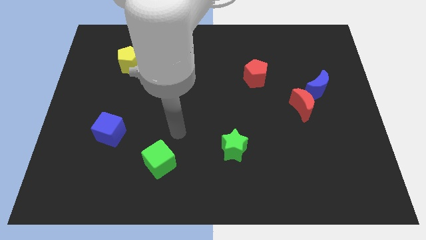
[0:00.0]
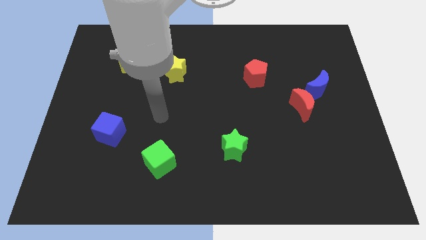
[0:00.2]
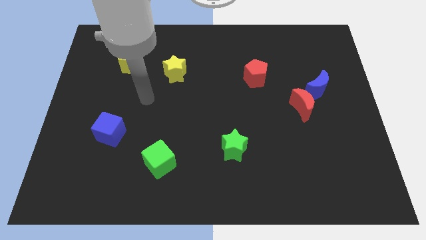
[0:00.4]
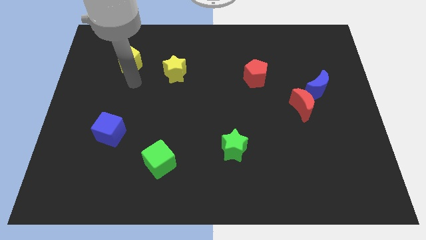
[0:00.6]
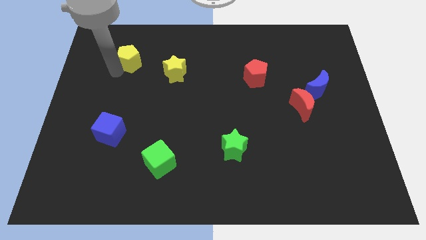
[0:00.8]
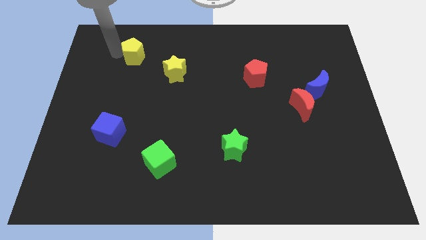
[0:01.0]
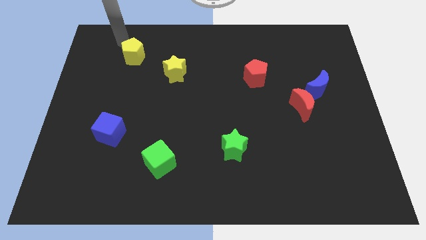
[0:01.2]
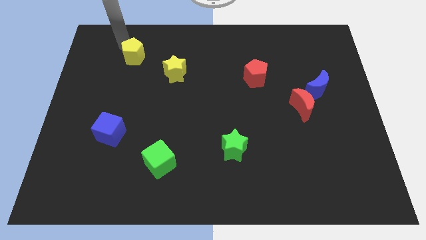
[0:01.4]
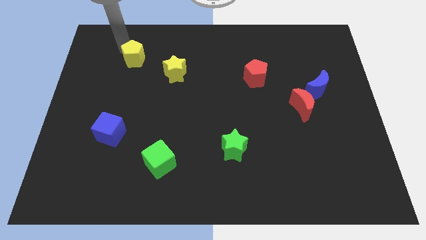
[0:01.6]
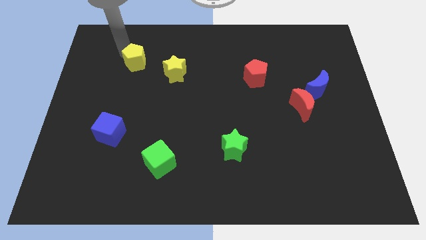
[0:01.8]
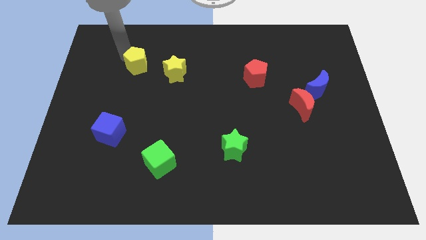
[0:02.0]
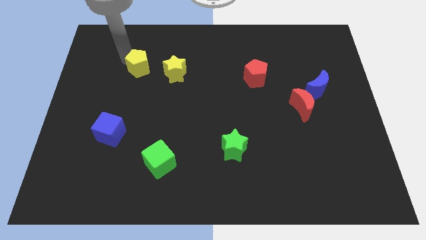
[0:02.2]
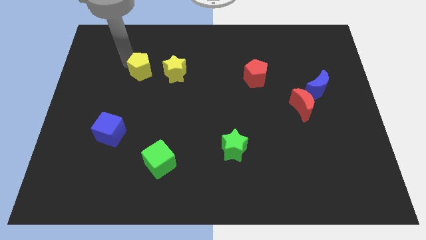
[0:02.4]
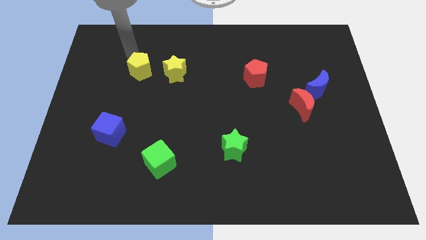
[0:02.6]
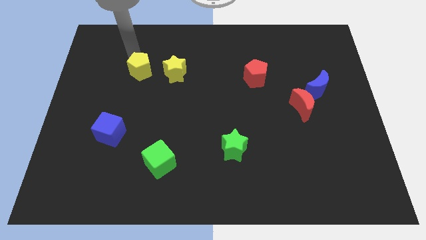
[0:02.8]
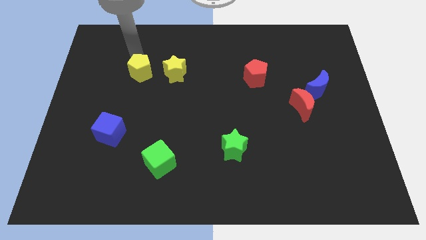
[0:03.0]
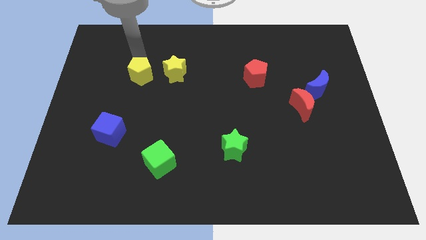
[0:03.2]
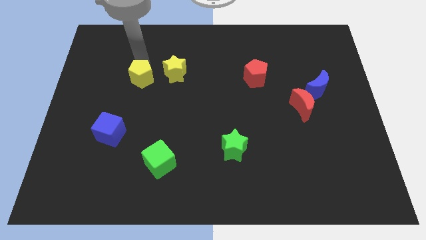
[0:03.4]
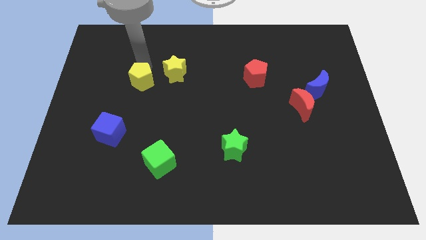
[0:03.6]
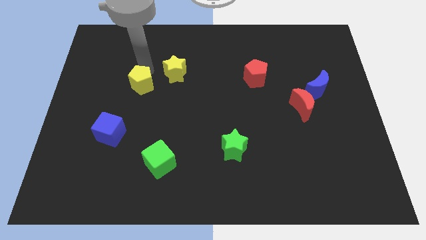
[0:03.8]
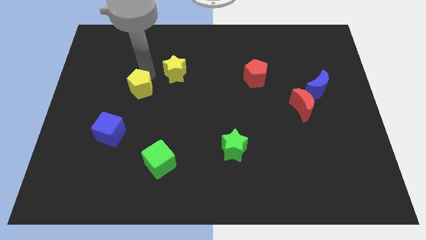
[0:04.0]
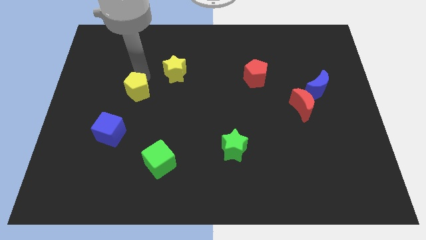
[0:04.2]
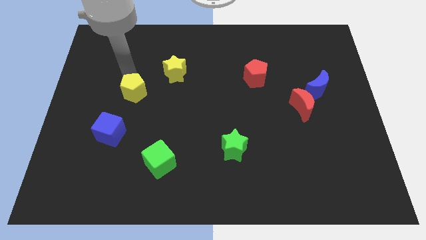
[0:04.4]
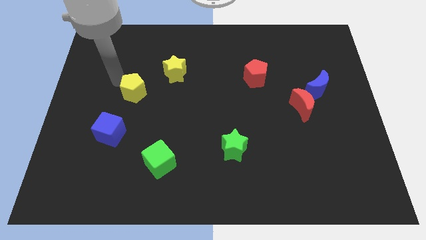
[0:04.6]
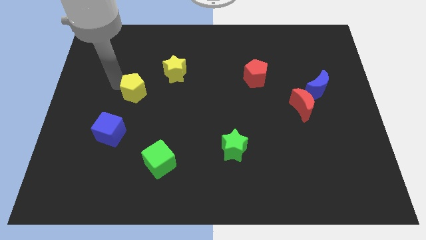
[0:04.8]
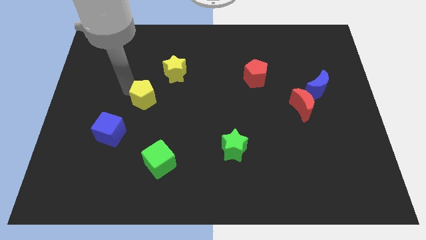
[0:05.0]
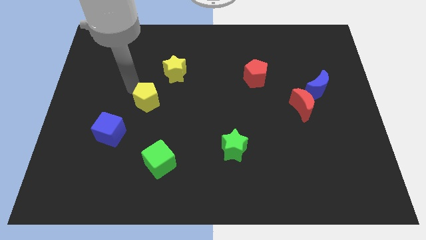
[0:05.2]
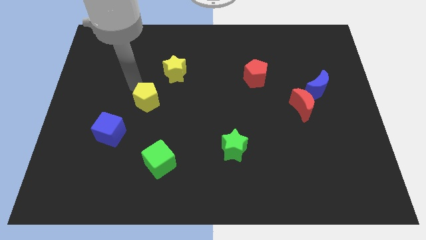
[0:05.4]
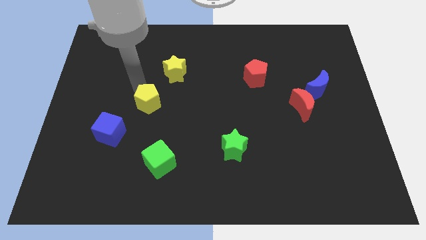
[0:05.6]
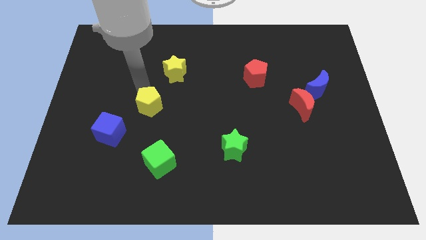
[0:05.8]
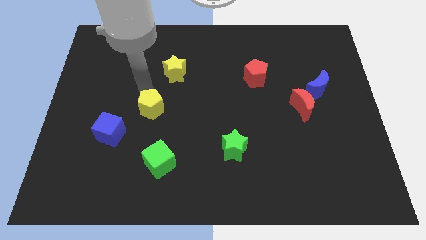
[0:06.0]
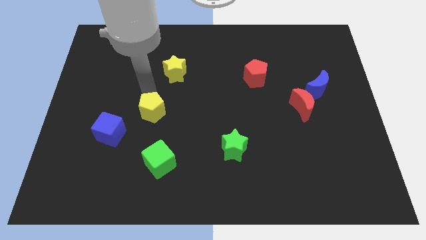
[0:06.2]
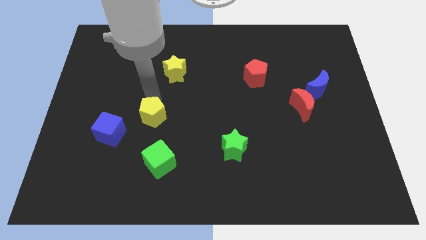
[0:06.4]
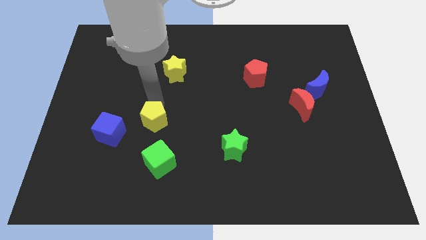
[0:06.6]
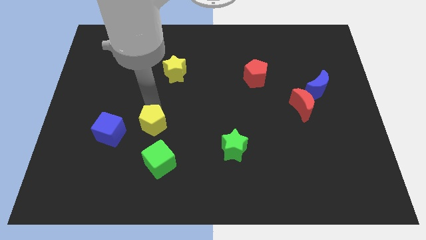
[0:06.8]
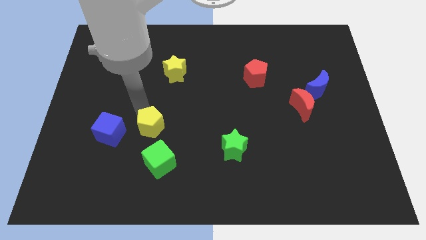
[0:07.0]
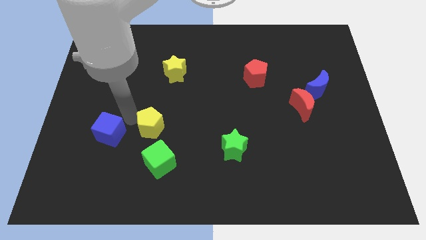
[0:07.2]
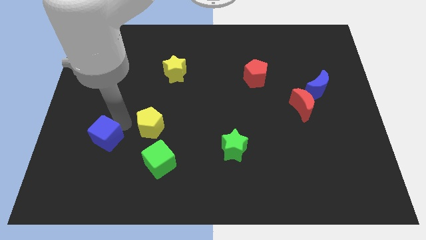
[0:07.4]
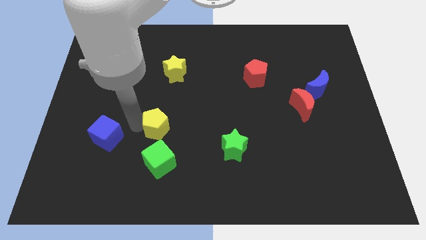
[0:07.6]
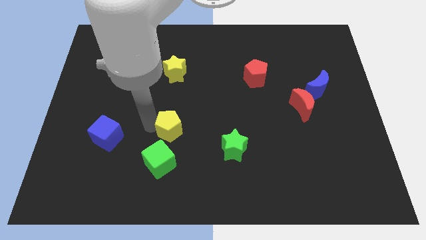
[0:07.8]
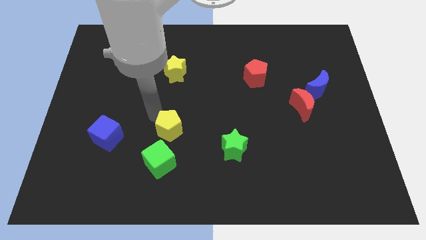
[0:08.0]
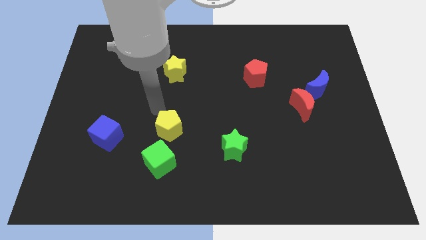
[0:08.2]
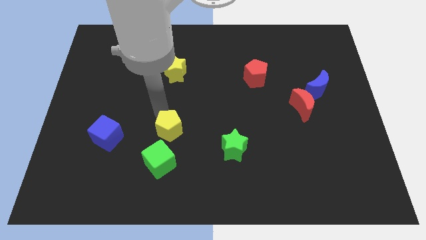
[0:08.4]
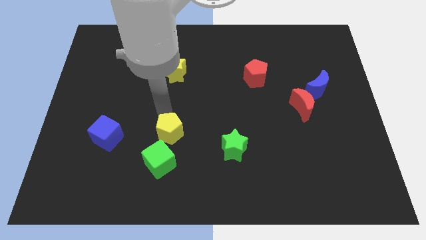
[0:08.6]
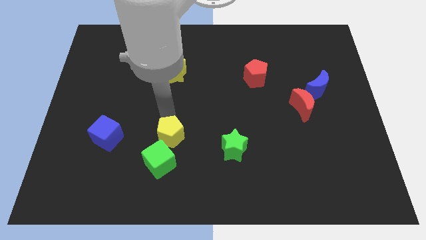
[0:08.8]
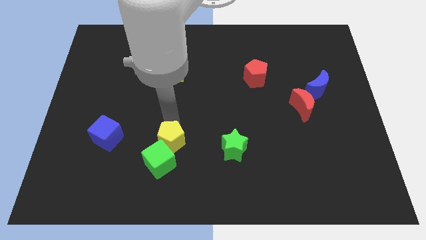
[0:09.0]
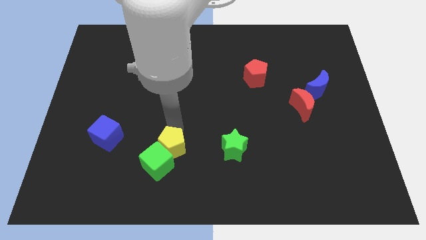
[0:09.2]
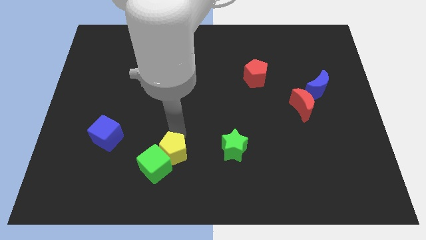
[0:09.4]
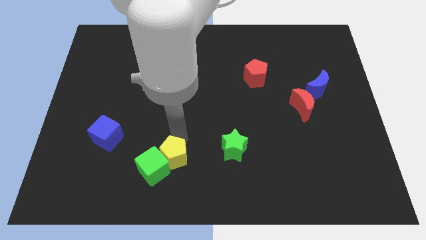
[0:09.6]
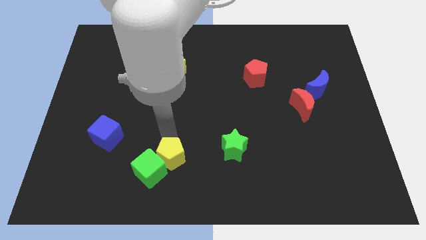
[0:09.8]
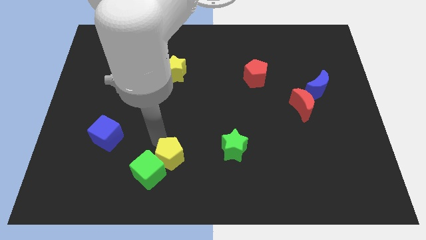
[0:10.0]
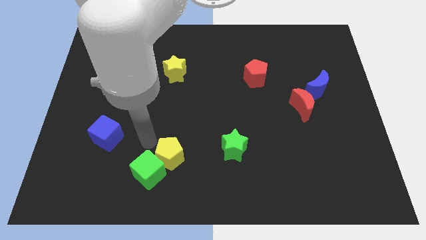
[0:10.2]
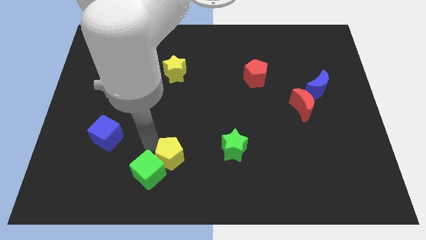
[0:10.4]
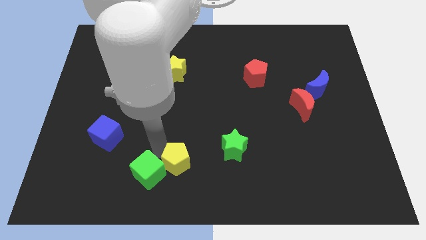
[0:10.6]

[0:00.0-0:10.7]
move the yellow pentagon to the bottom
